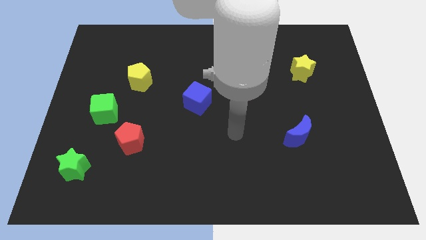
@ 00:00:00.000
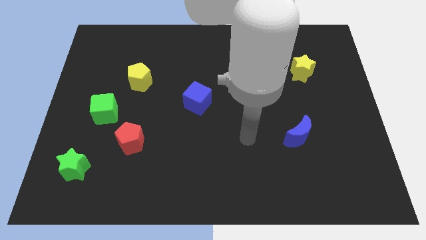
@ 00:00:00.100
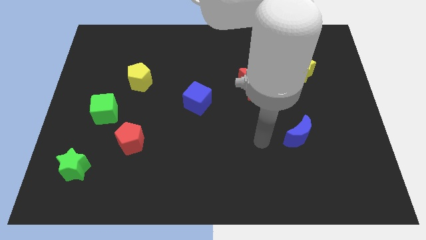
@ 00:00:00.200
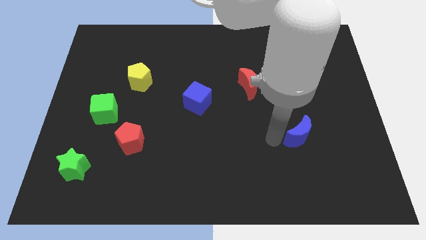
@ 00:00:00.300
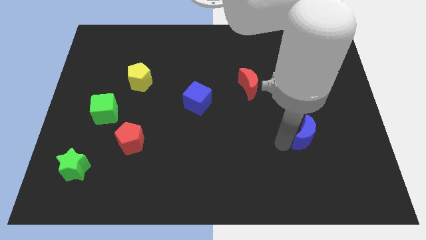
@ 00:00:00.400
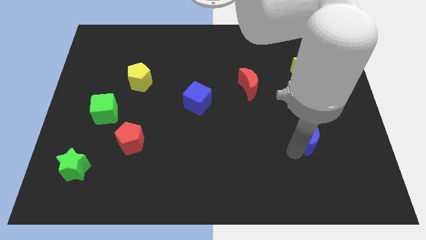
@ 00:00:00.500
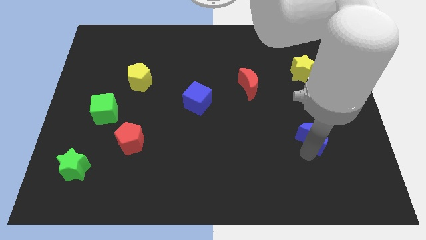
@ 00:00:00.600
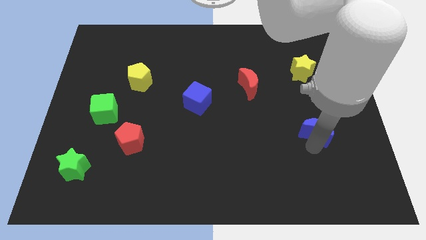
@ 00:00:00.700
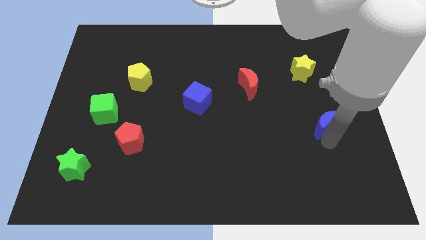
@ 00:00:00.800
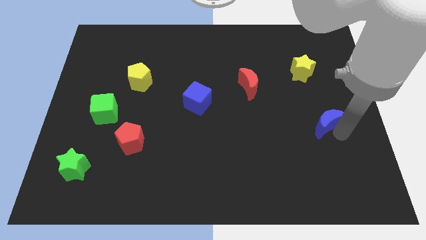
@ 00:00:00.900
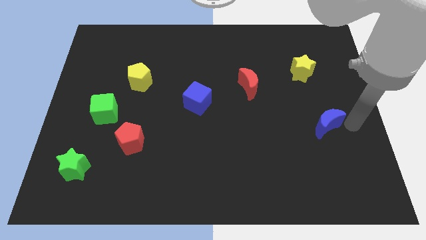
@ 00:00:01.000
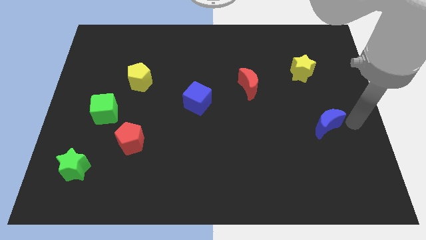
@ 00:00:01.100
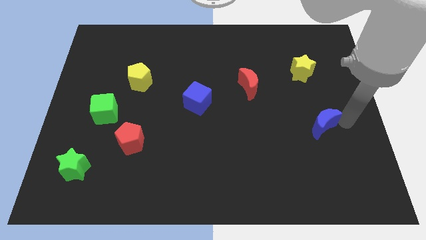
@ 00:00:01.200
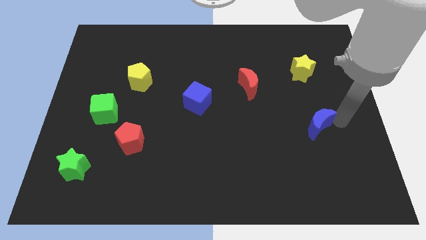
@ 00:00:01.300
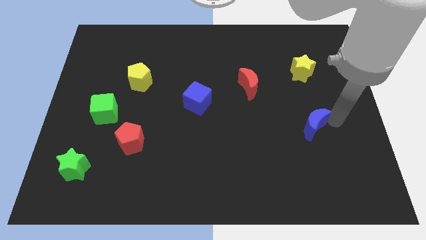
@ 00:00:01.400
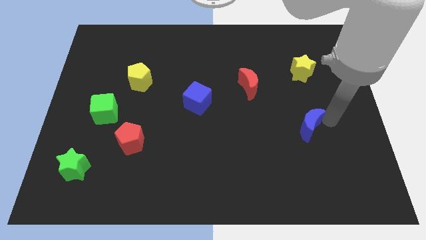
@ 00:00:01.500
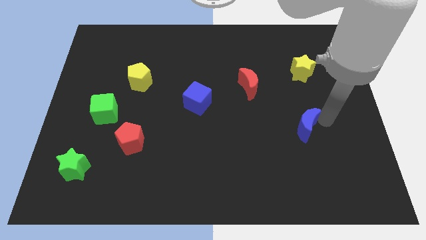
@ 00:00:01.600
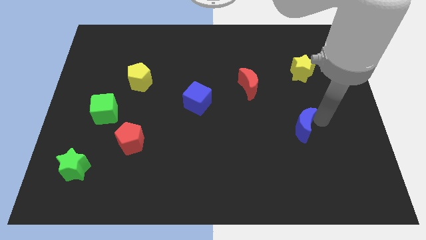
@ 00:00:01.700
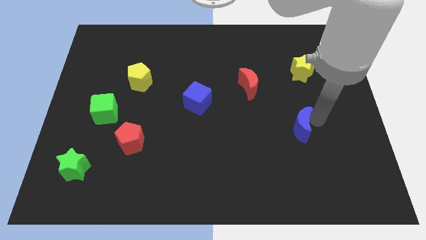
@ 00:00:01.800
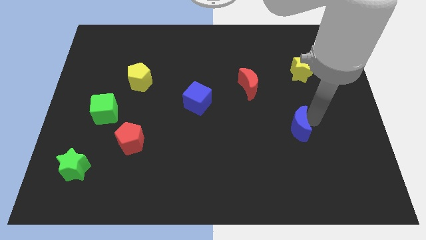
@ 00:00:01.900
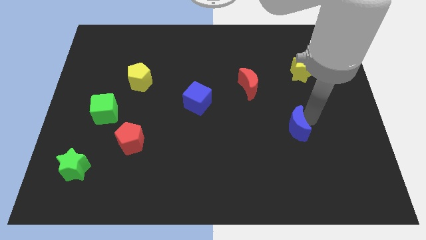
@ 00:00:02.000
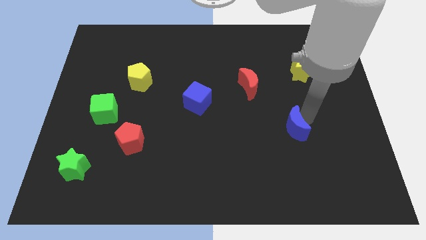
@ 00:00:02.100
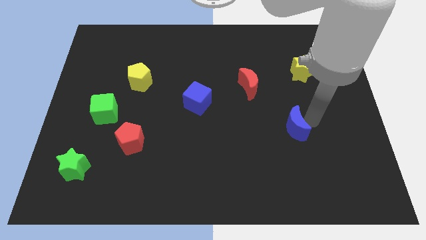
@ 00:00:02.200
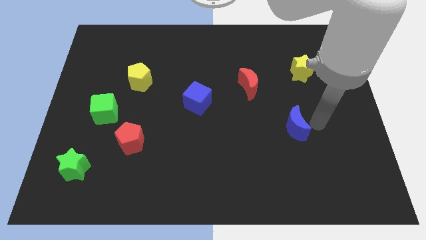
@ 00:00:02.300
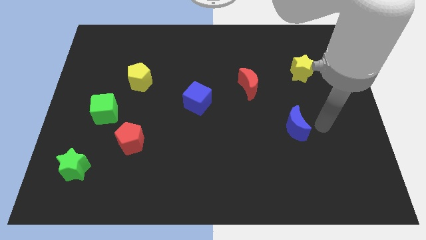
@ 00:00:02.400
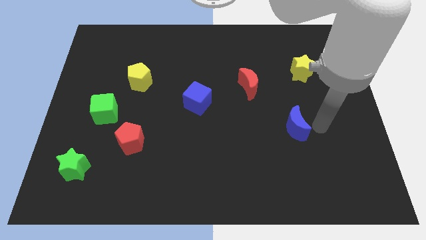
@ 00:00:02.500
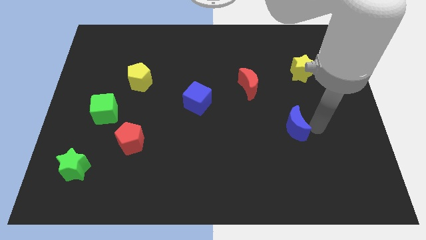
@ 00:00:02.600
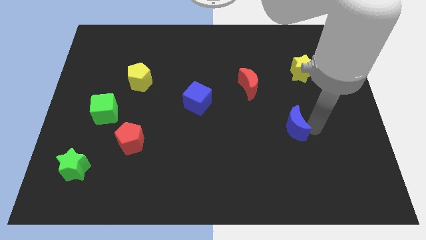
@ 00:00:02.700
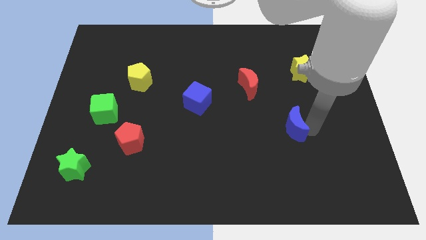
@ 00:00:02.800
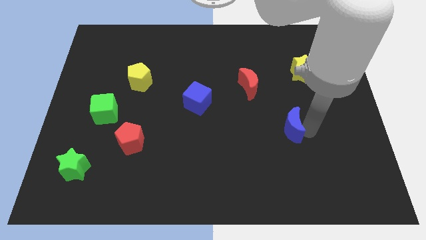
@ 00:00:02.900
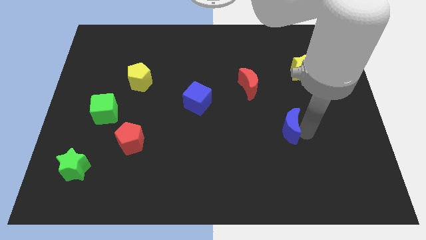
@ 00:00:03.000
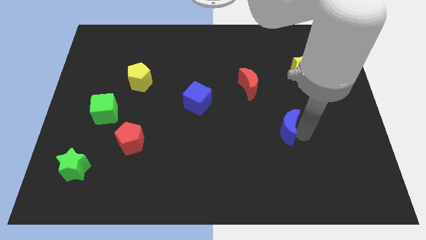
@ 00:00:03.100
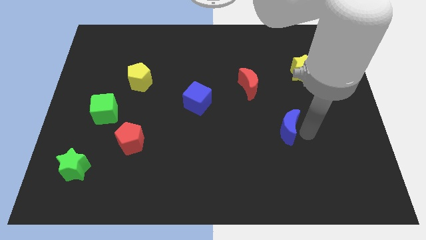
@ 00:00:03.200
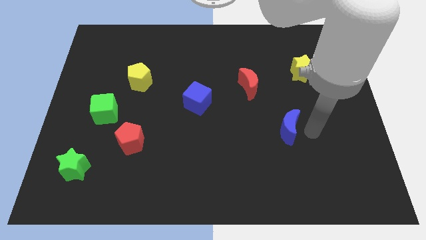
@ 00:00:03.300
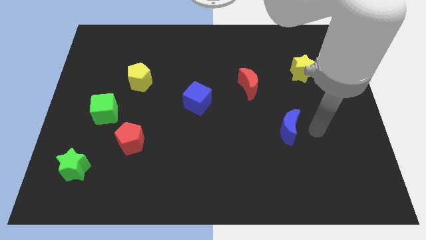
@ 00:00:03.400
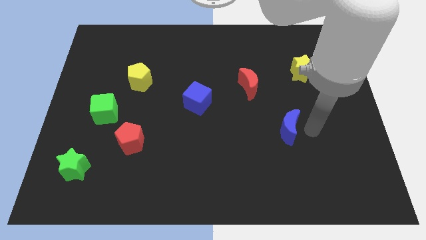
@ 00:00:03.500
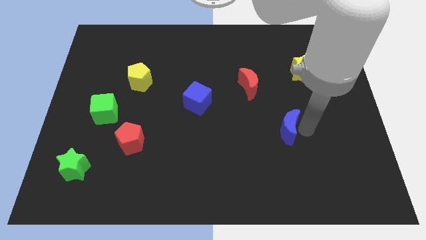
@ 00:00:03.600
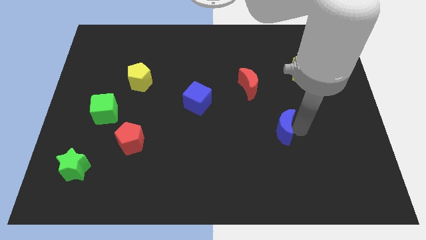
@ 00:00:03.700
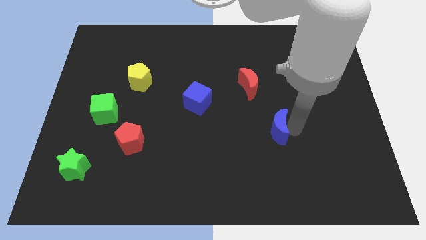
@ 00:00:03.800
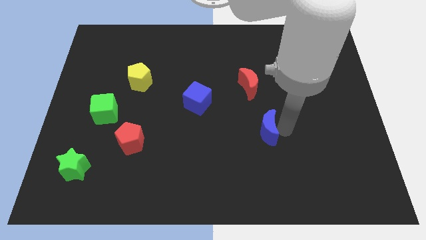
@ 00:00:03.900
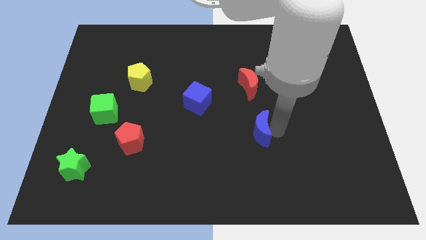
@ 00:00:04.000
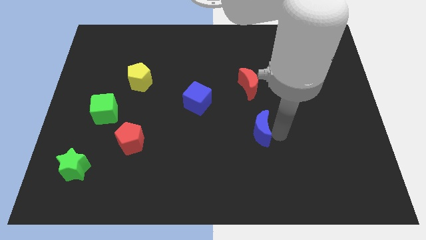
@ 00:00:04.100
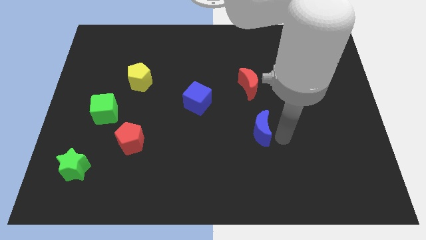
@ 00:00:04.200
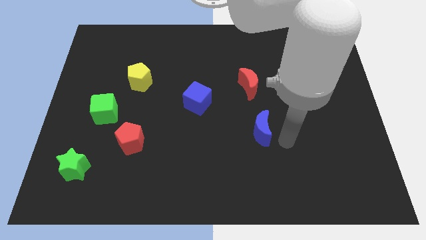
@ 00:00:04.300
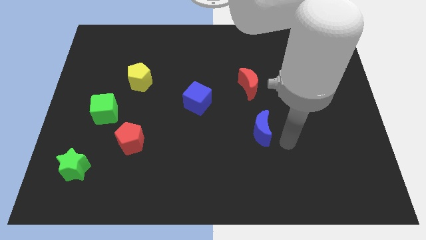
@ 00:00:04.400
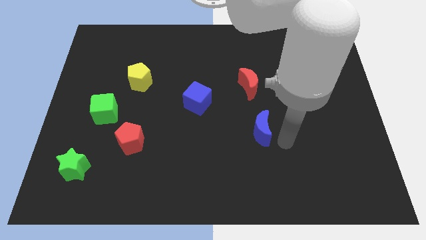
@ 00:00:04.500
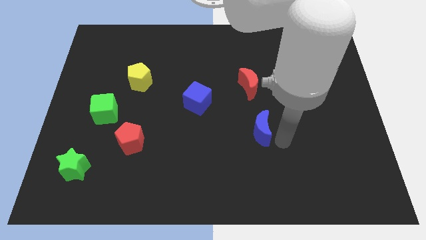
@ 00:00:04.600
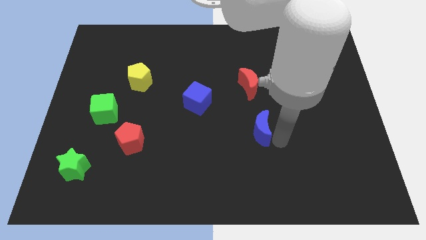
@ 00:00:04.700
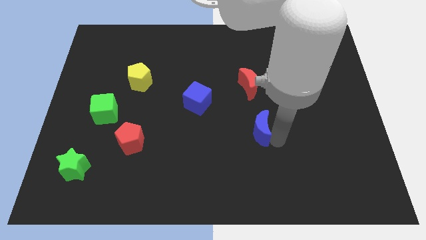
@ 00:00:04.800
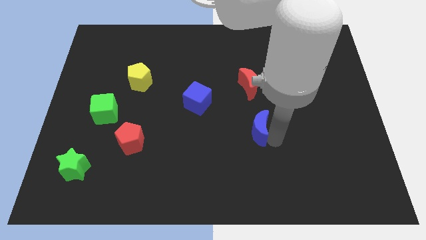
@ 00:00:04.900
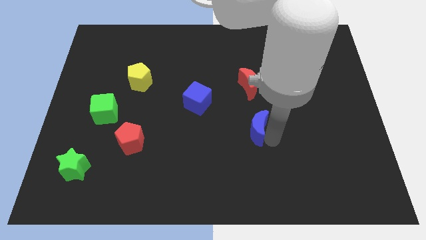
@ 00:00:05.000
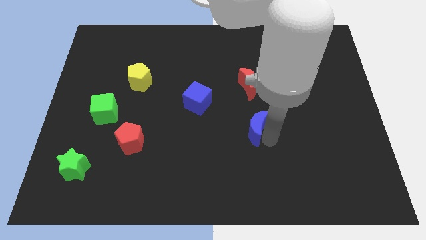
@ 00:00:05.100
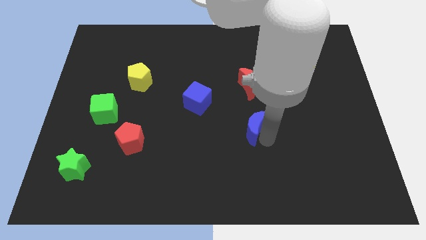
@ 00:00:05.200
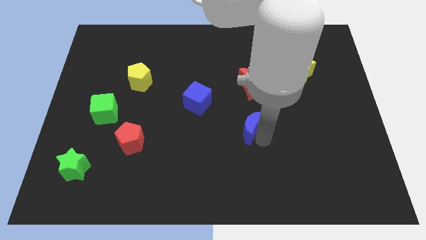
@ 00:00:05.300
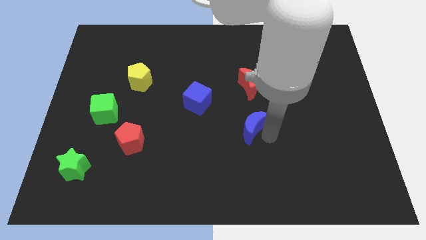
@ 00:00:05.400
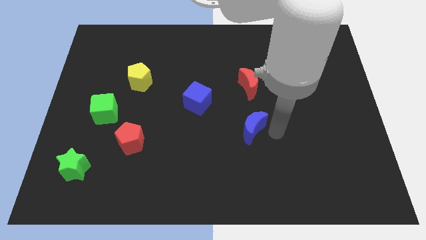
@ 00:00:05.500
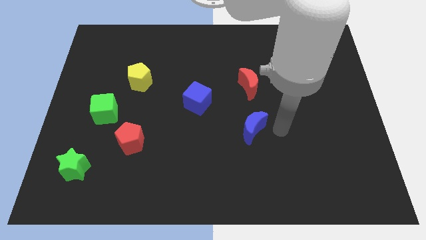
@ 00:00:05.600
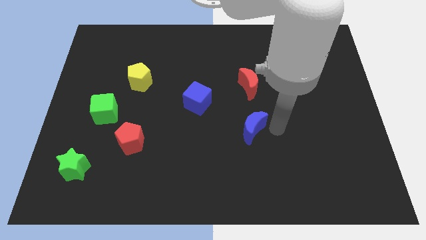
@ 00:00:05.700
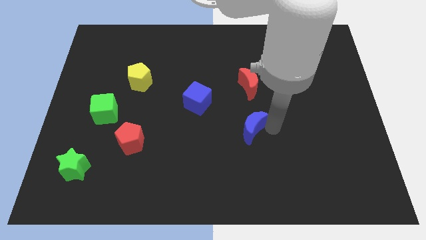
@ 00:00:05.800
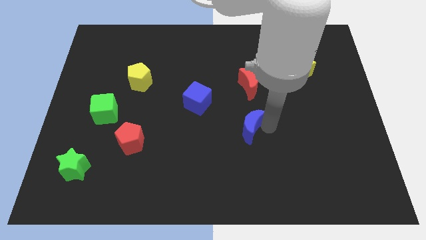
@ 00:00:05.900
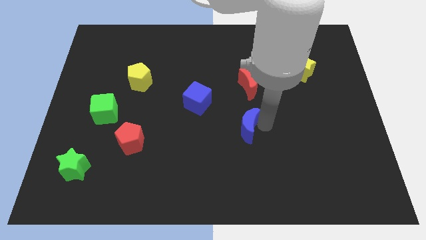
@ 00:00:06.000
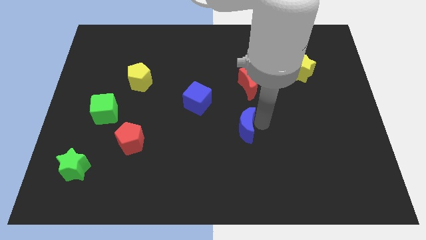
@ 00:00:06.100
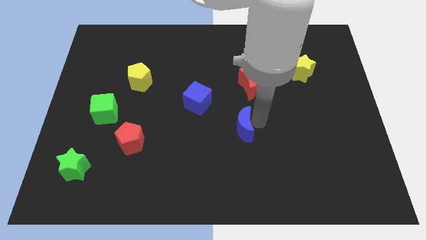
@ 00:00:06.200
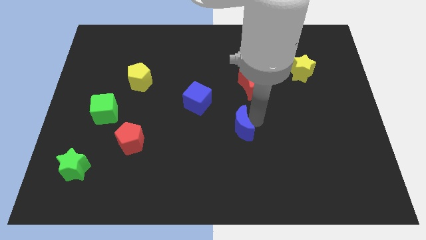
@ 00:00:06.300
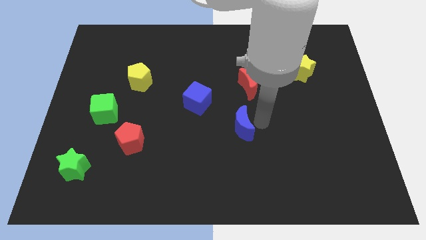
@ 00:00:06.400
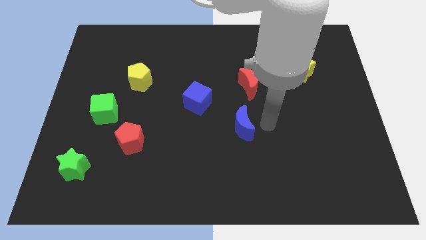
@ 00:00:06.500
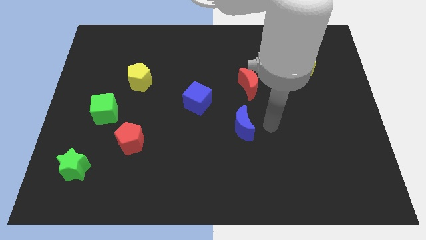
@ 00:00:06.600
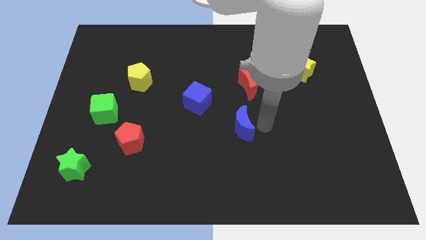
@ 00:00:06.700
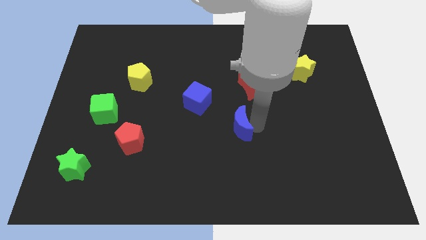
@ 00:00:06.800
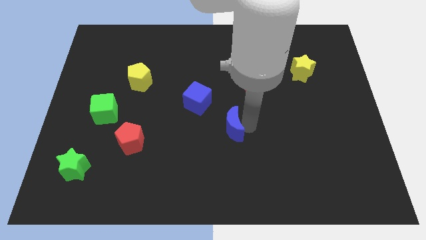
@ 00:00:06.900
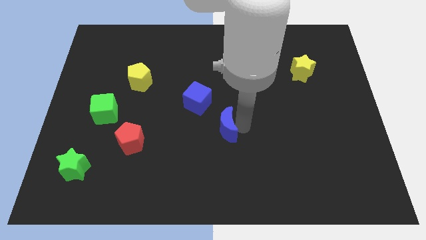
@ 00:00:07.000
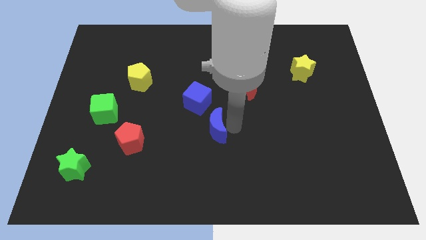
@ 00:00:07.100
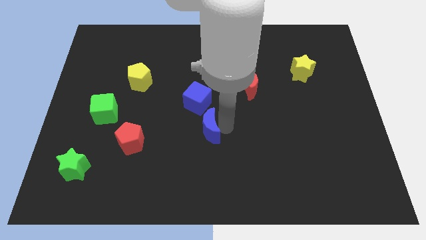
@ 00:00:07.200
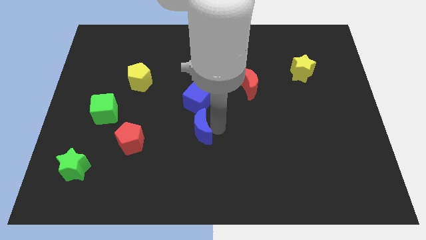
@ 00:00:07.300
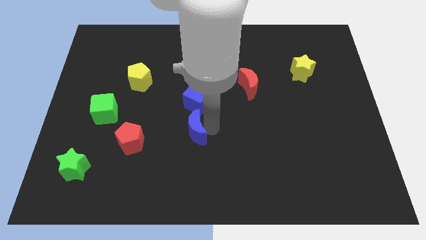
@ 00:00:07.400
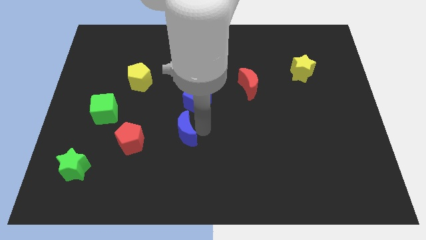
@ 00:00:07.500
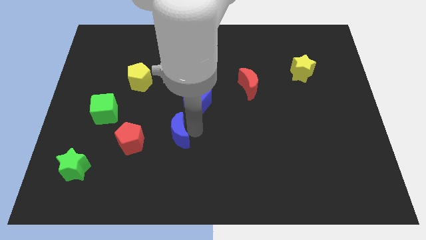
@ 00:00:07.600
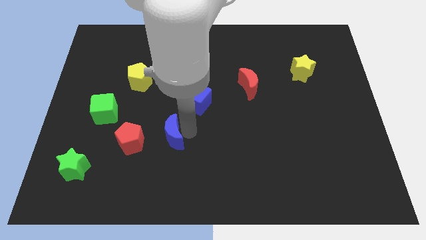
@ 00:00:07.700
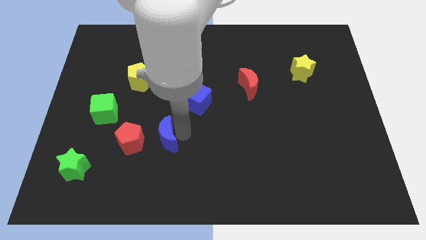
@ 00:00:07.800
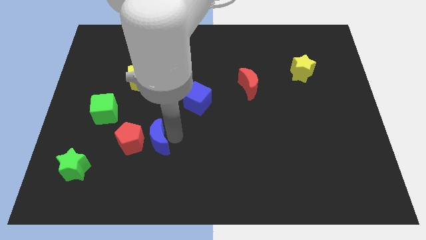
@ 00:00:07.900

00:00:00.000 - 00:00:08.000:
push the blue moon close to the red pentagon
